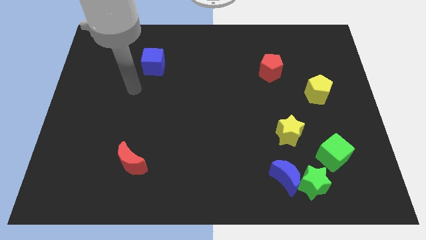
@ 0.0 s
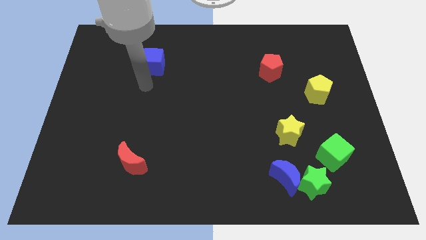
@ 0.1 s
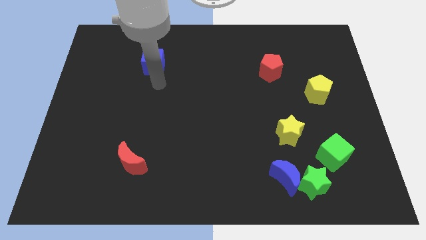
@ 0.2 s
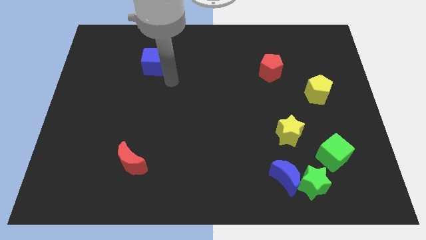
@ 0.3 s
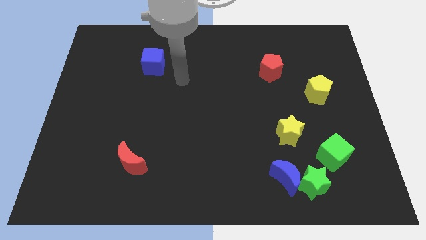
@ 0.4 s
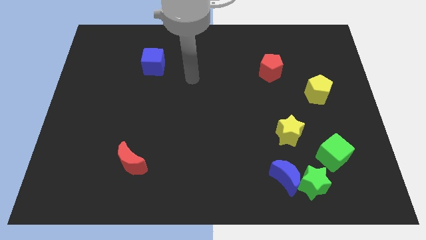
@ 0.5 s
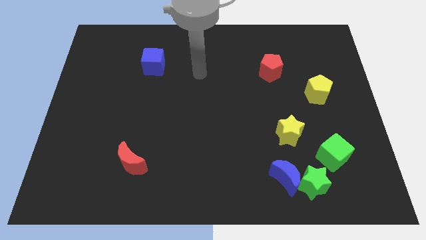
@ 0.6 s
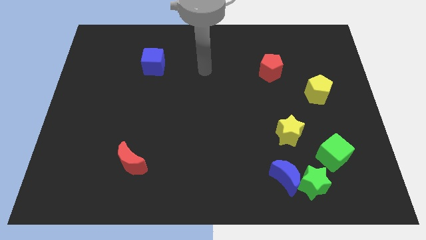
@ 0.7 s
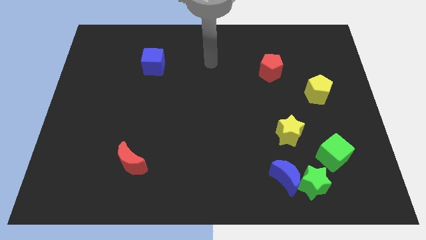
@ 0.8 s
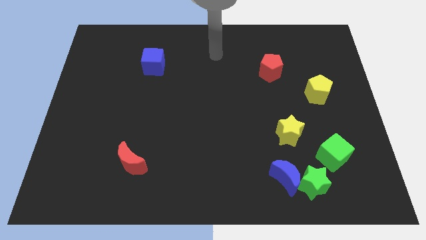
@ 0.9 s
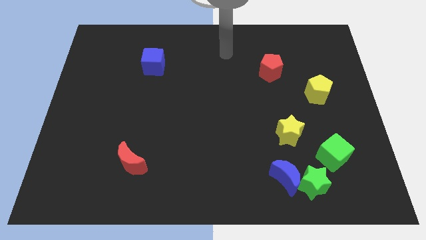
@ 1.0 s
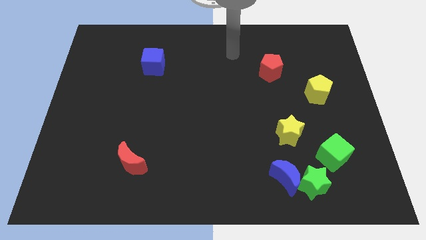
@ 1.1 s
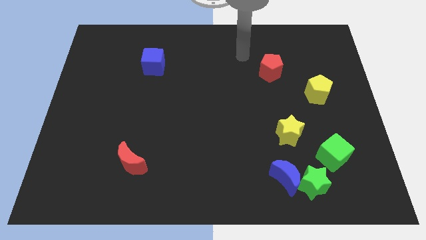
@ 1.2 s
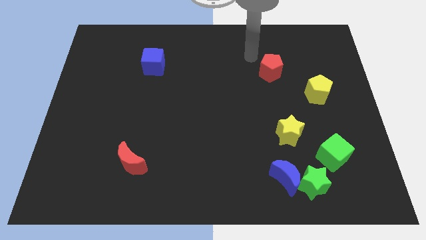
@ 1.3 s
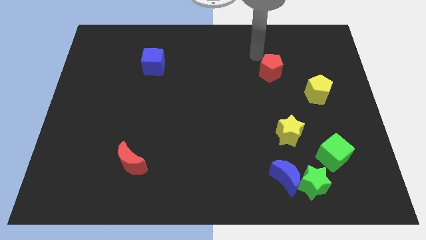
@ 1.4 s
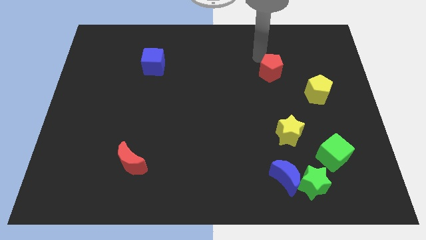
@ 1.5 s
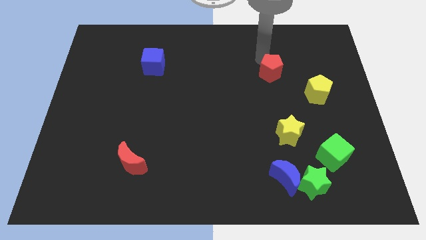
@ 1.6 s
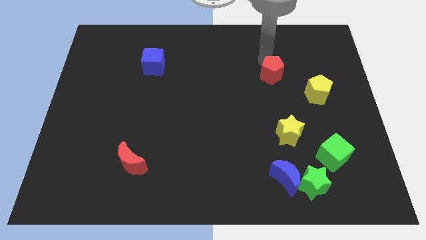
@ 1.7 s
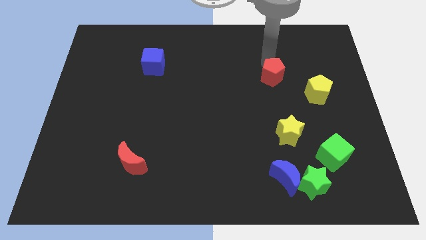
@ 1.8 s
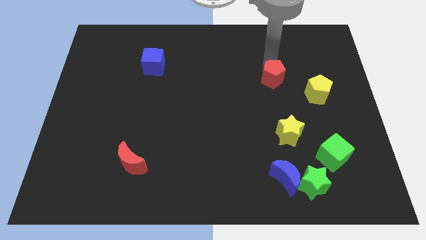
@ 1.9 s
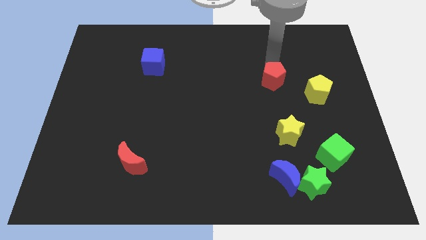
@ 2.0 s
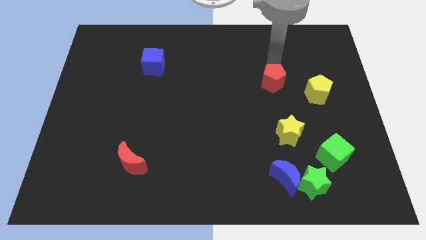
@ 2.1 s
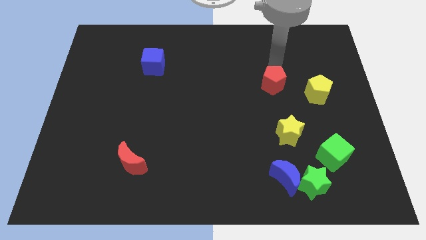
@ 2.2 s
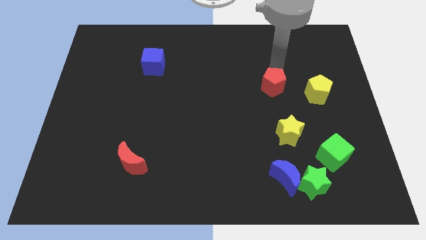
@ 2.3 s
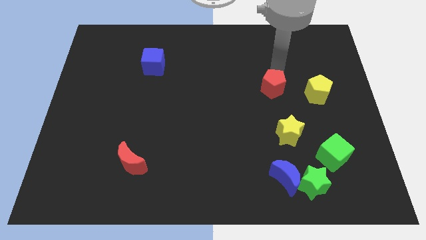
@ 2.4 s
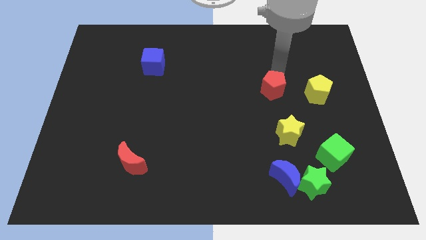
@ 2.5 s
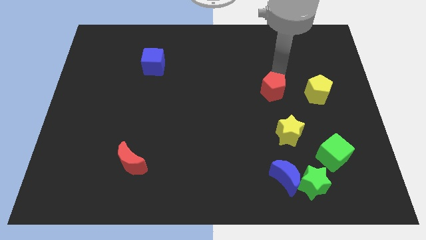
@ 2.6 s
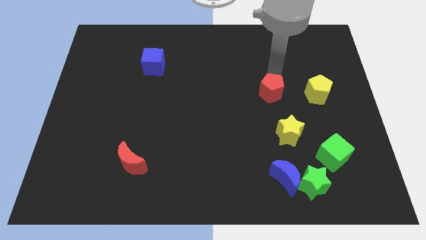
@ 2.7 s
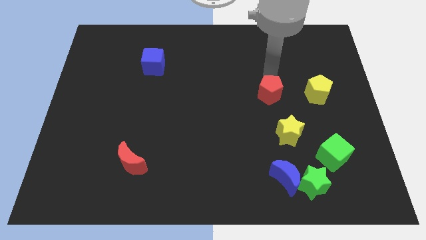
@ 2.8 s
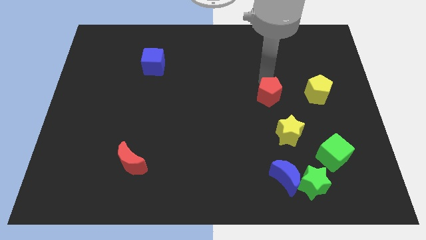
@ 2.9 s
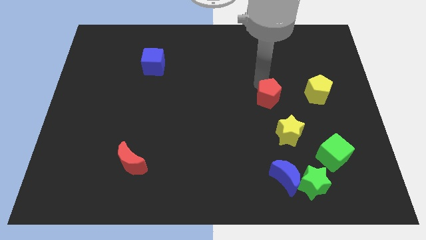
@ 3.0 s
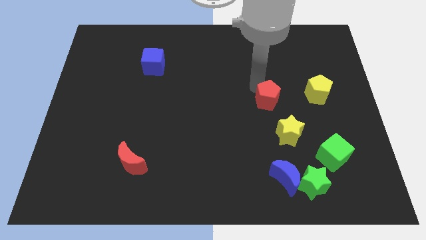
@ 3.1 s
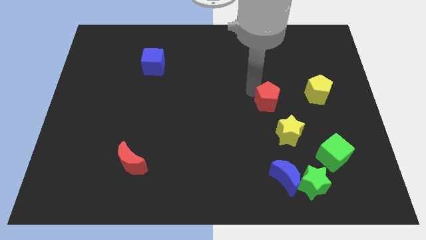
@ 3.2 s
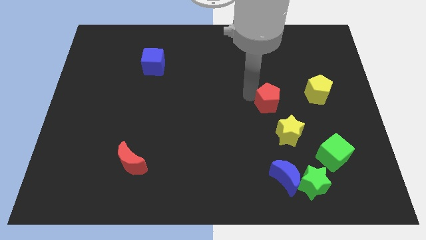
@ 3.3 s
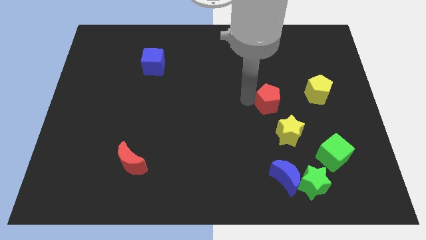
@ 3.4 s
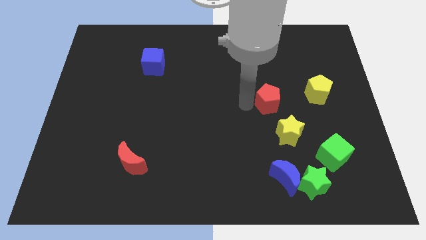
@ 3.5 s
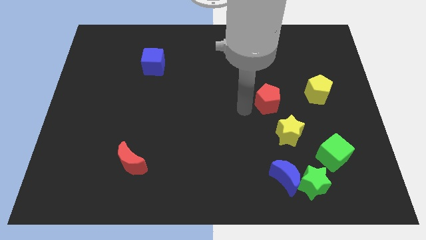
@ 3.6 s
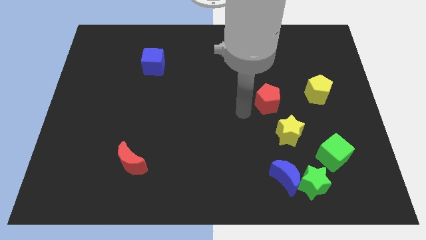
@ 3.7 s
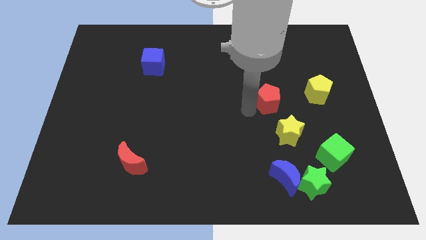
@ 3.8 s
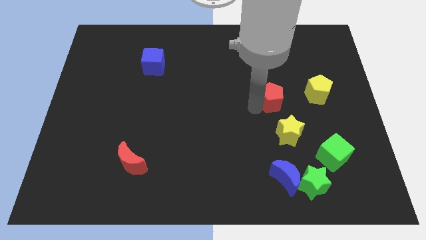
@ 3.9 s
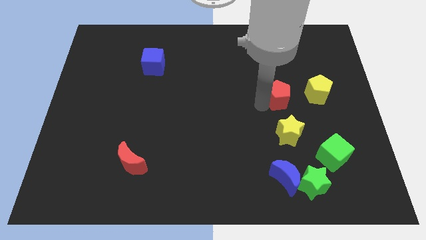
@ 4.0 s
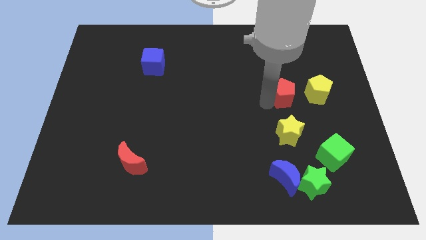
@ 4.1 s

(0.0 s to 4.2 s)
slide the red pentagon downwards and right slightly

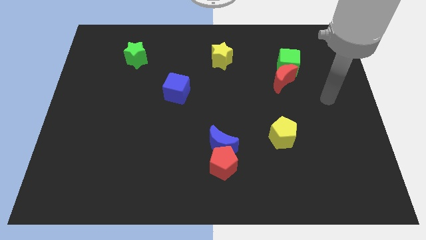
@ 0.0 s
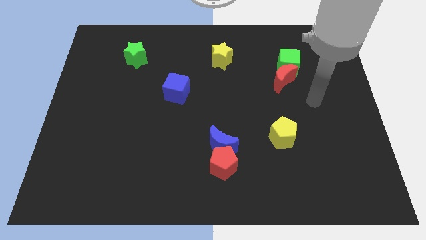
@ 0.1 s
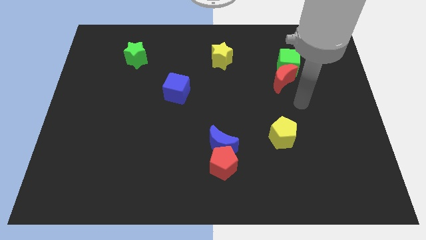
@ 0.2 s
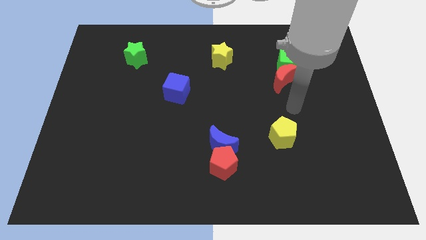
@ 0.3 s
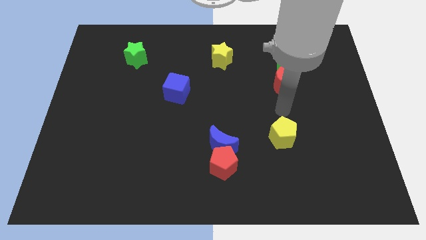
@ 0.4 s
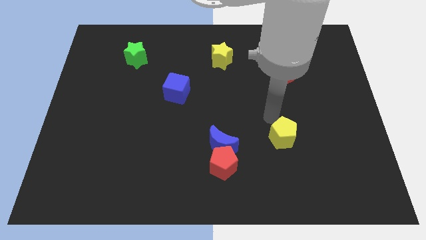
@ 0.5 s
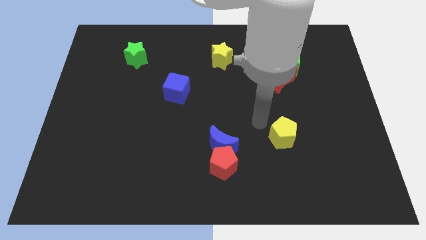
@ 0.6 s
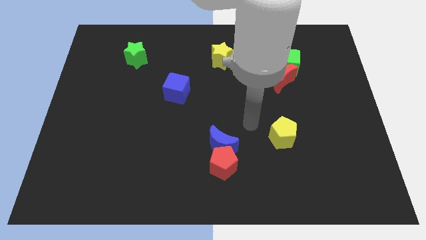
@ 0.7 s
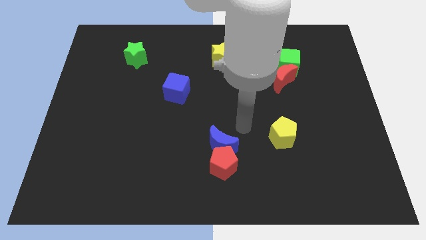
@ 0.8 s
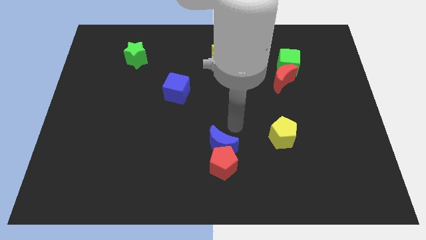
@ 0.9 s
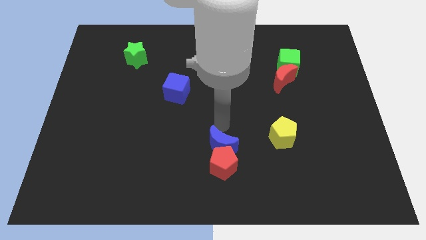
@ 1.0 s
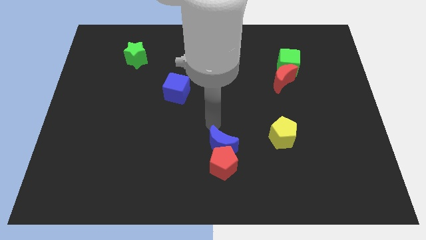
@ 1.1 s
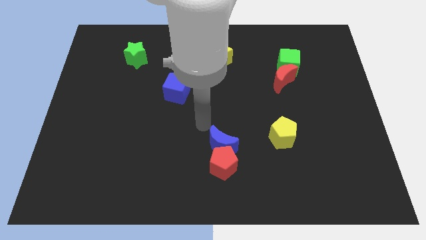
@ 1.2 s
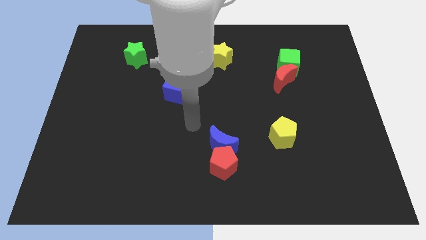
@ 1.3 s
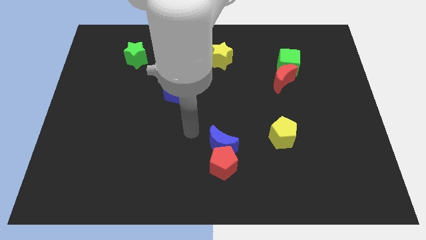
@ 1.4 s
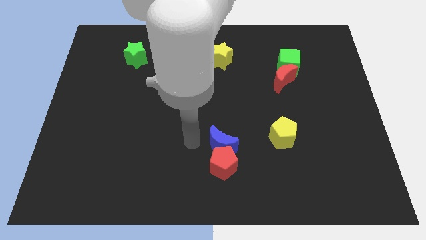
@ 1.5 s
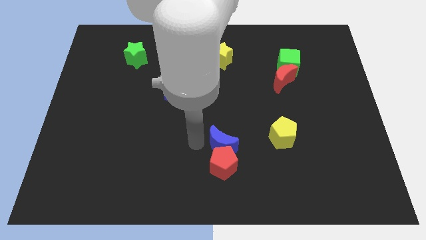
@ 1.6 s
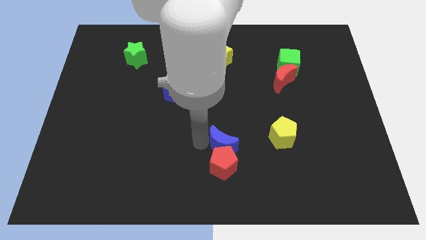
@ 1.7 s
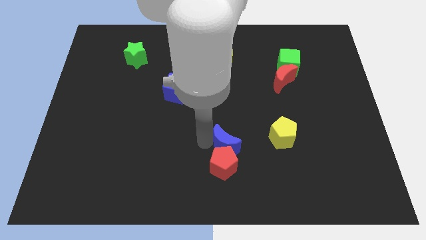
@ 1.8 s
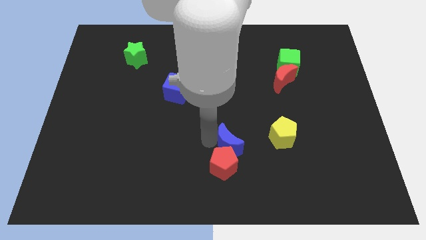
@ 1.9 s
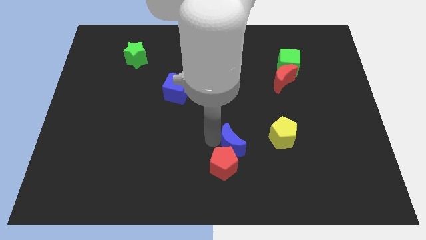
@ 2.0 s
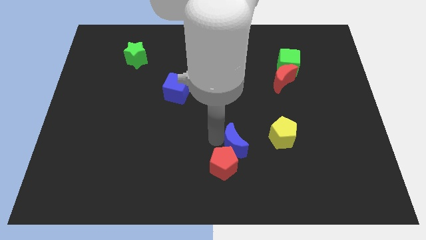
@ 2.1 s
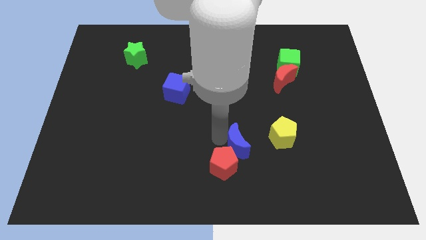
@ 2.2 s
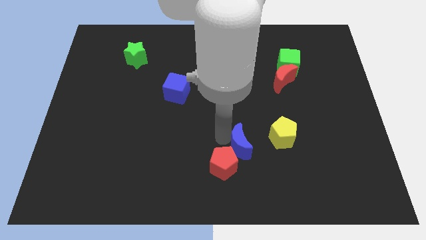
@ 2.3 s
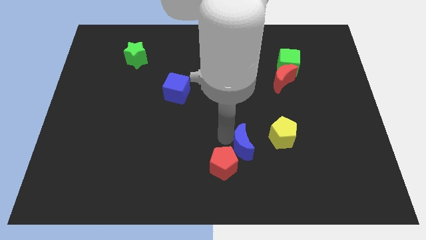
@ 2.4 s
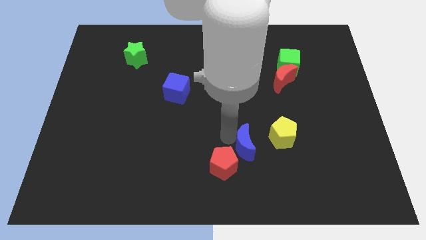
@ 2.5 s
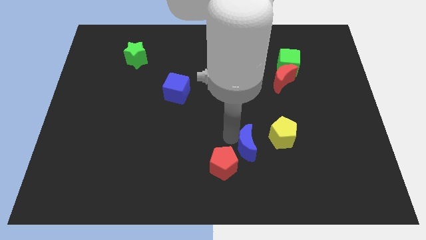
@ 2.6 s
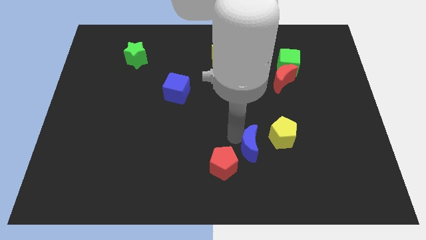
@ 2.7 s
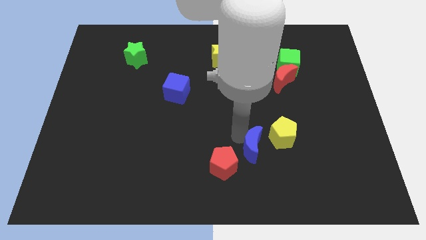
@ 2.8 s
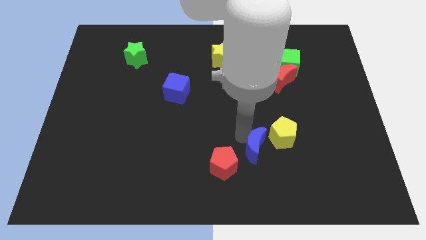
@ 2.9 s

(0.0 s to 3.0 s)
slide the blue moon a bit right

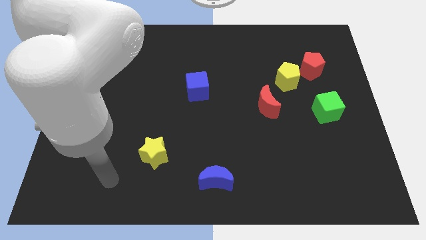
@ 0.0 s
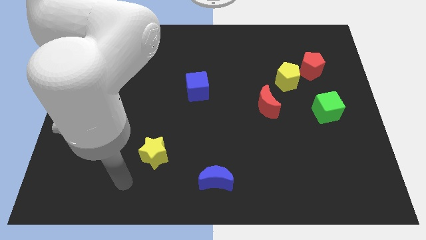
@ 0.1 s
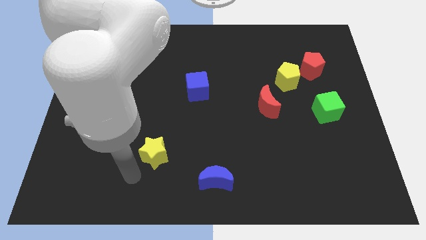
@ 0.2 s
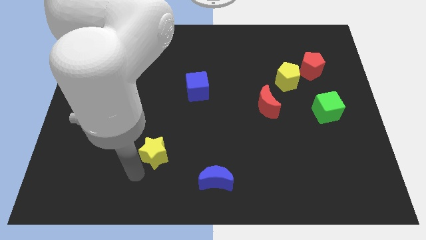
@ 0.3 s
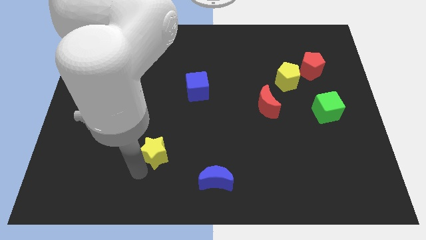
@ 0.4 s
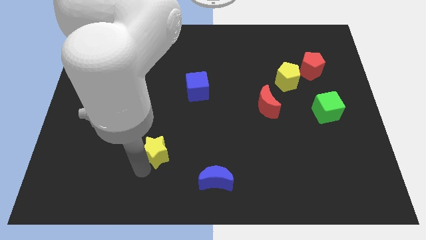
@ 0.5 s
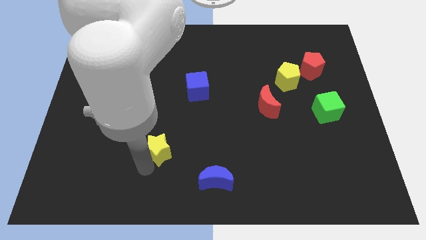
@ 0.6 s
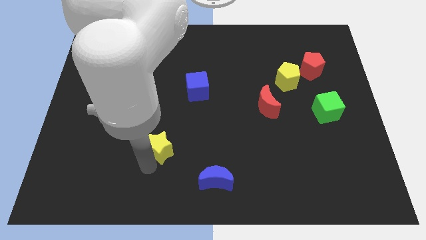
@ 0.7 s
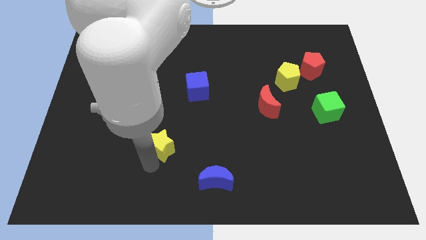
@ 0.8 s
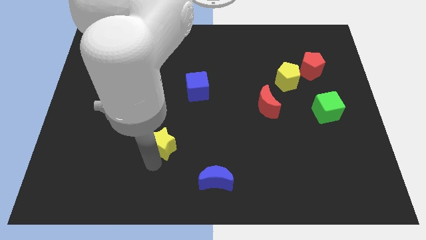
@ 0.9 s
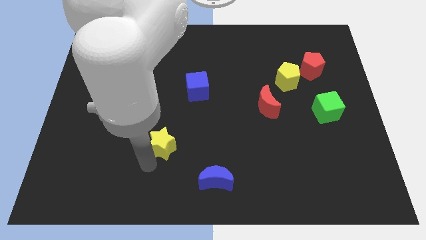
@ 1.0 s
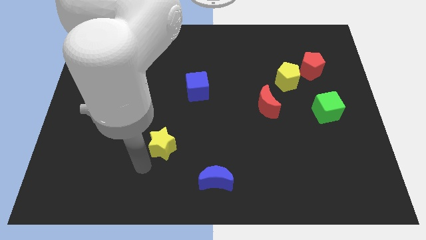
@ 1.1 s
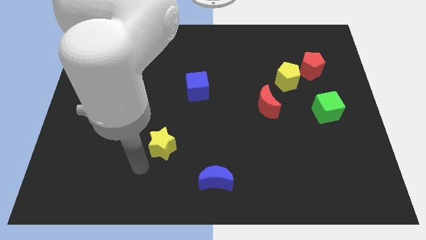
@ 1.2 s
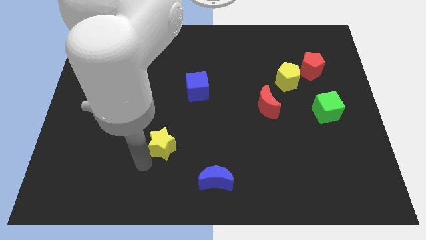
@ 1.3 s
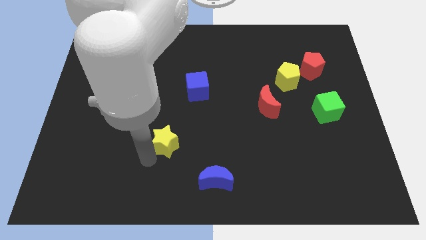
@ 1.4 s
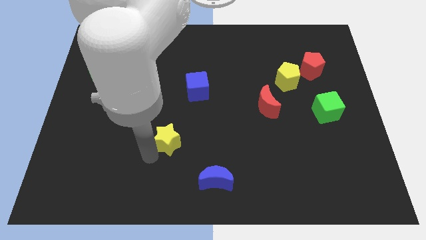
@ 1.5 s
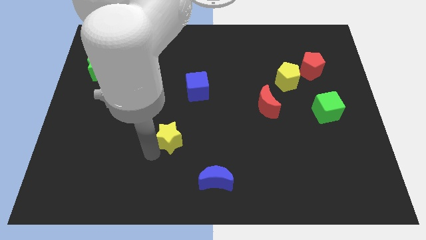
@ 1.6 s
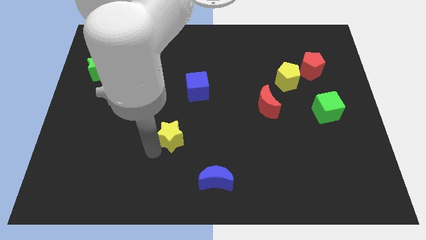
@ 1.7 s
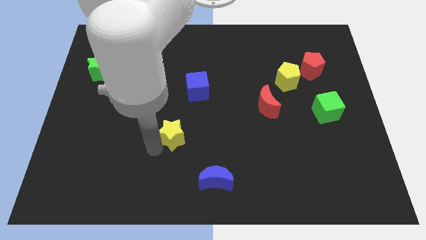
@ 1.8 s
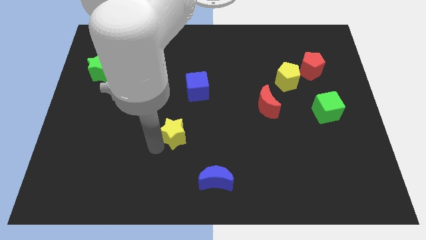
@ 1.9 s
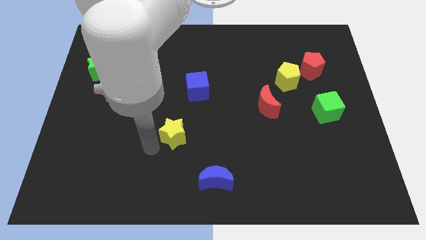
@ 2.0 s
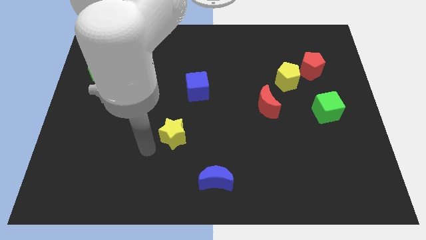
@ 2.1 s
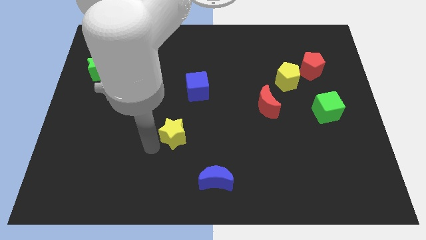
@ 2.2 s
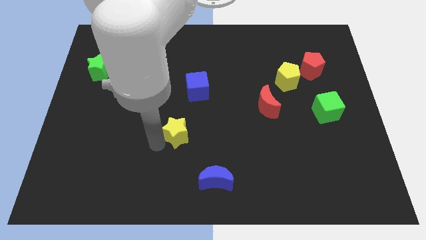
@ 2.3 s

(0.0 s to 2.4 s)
slide the yellow star a bit diagonally upwards and right
